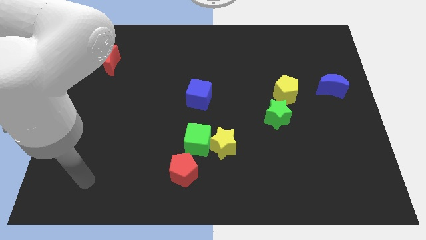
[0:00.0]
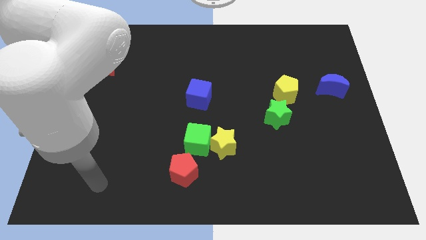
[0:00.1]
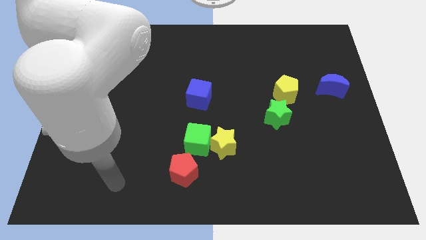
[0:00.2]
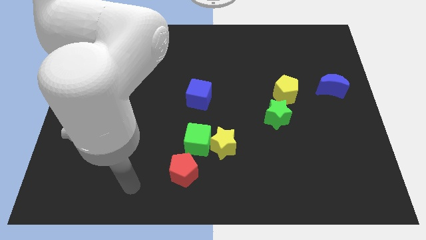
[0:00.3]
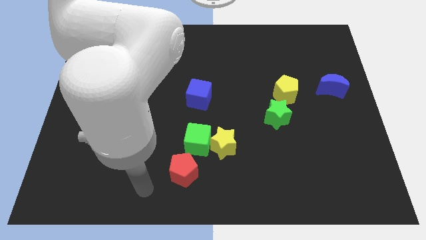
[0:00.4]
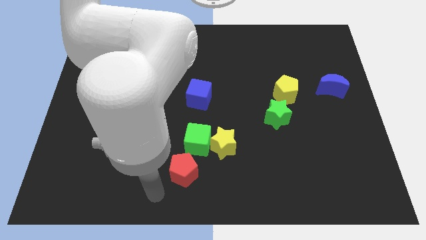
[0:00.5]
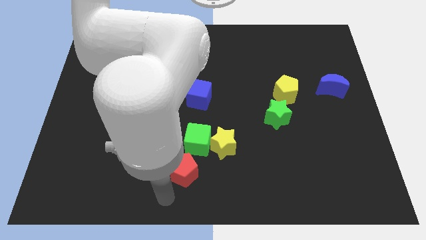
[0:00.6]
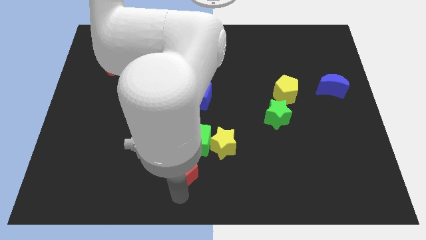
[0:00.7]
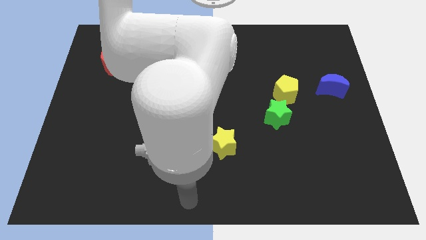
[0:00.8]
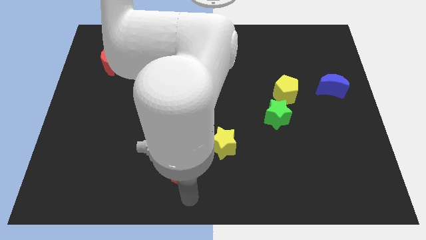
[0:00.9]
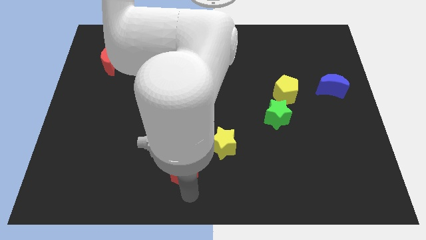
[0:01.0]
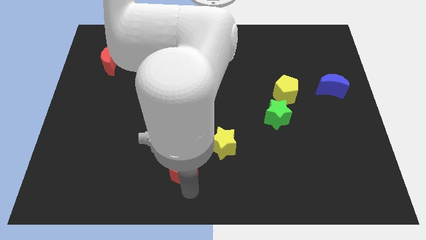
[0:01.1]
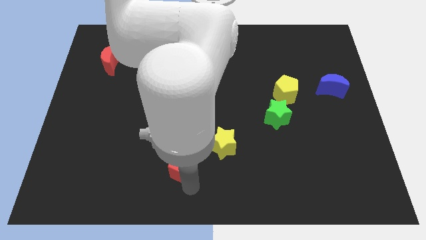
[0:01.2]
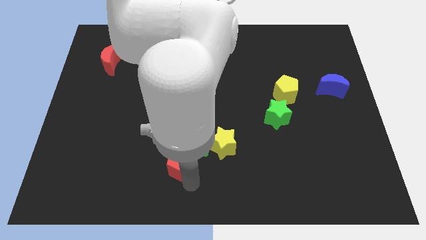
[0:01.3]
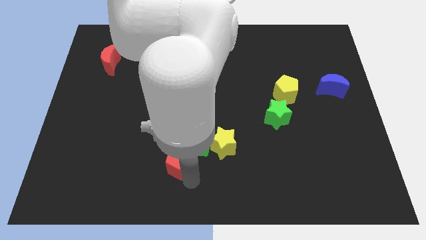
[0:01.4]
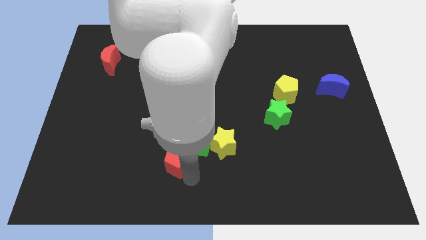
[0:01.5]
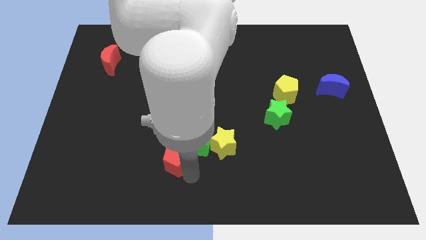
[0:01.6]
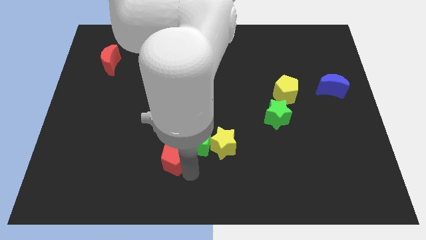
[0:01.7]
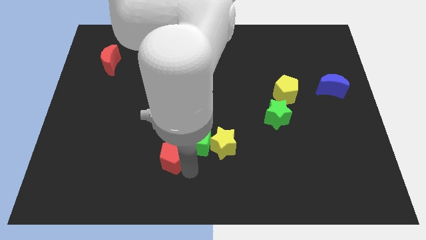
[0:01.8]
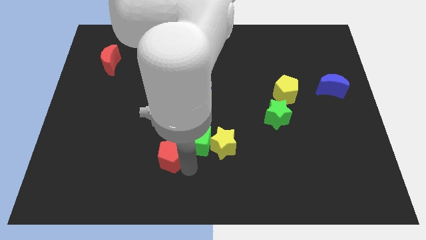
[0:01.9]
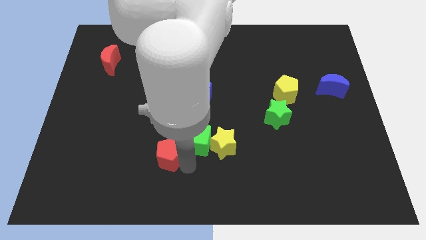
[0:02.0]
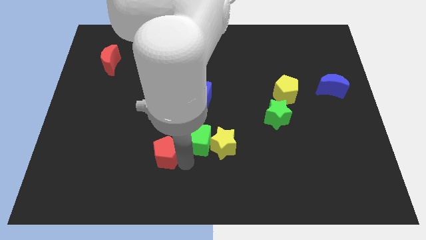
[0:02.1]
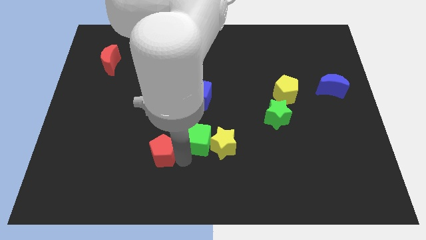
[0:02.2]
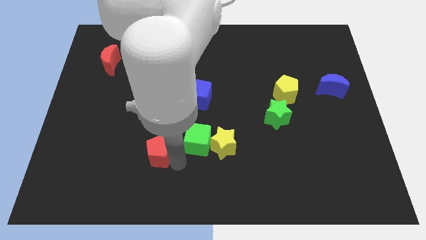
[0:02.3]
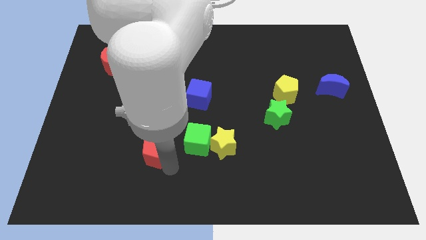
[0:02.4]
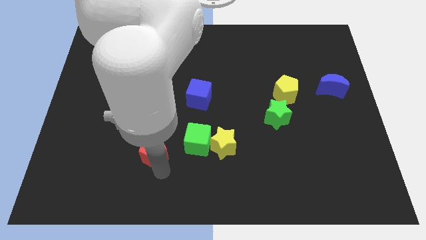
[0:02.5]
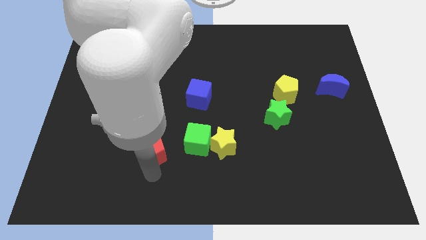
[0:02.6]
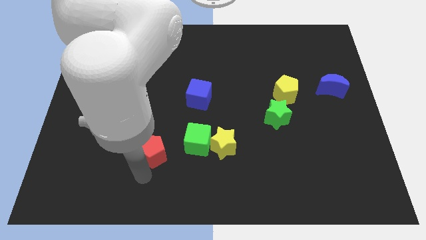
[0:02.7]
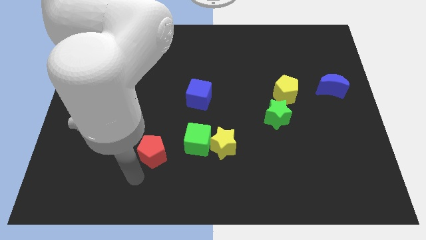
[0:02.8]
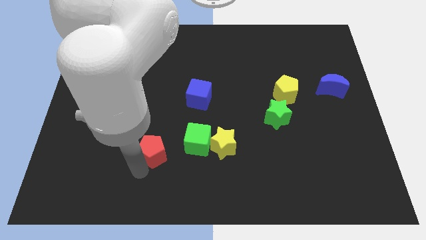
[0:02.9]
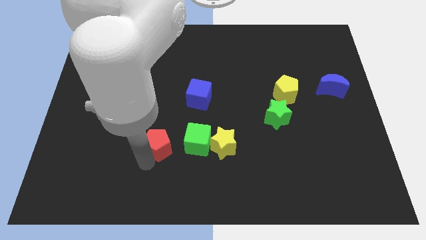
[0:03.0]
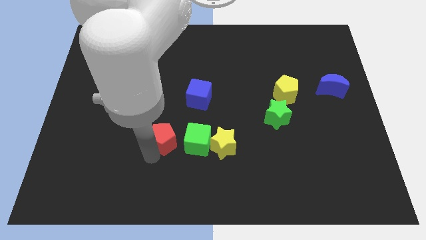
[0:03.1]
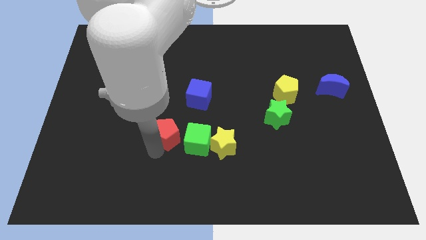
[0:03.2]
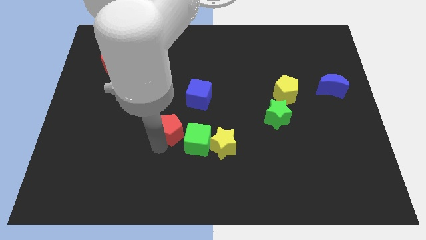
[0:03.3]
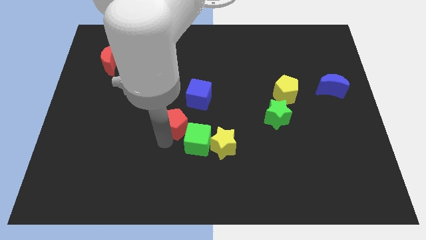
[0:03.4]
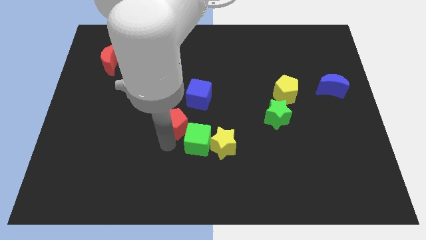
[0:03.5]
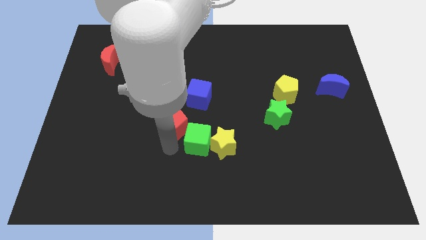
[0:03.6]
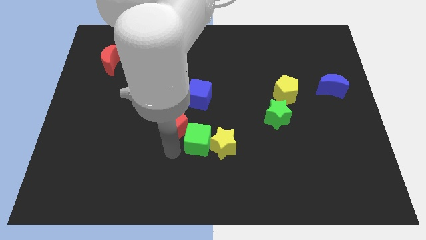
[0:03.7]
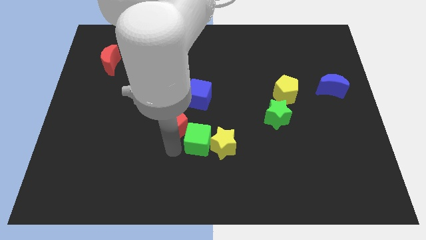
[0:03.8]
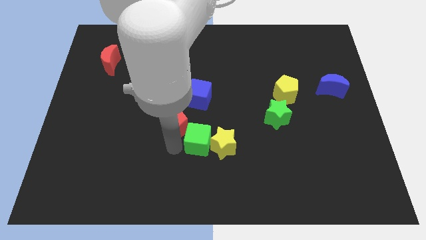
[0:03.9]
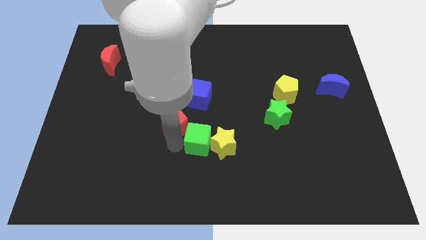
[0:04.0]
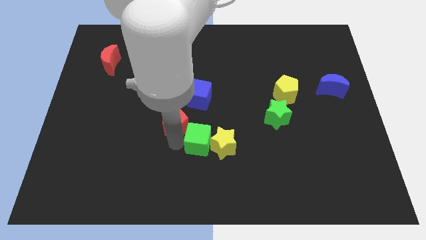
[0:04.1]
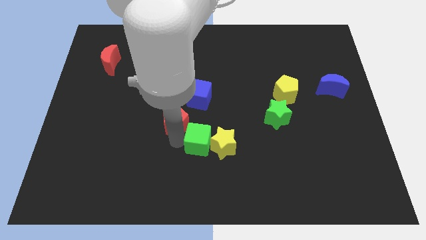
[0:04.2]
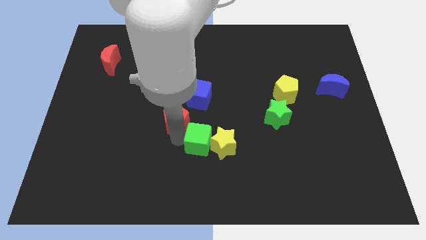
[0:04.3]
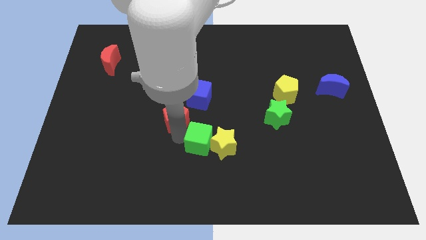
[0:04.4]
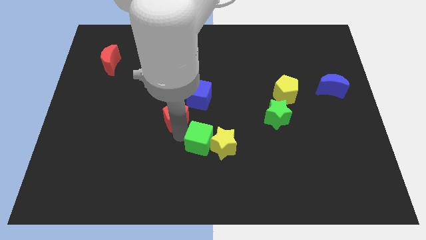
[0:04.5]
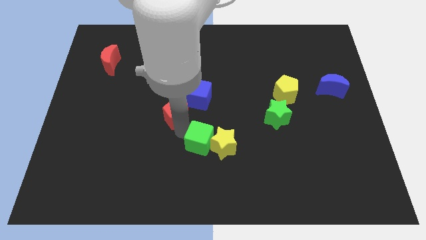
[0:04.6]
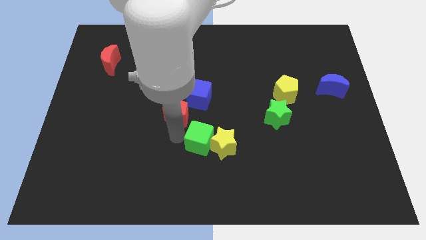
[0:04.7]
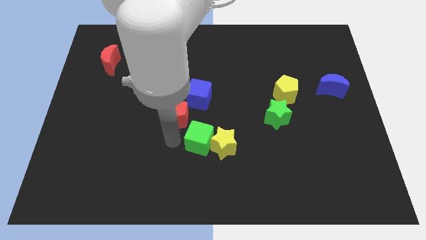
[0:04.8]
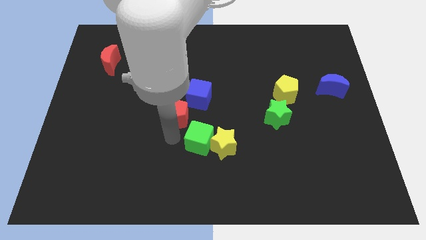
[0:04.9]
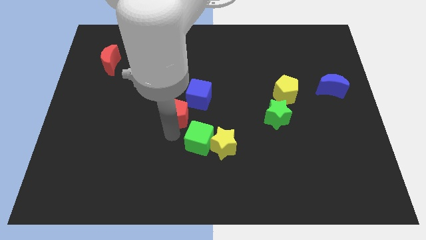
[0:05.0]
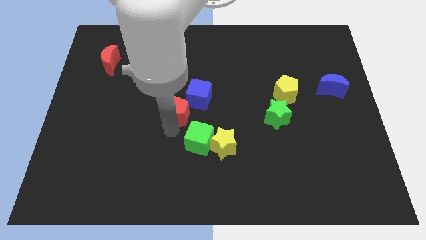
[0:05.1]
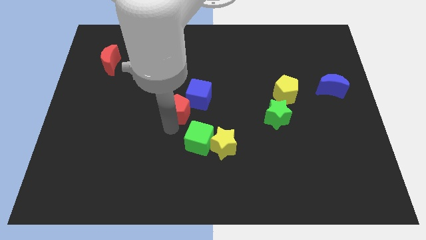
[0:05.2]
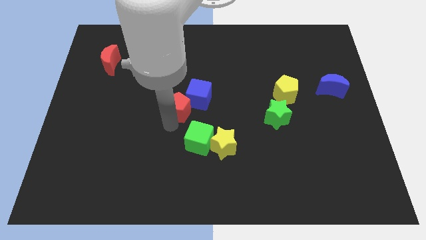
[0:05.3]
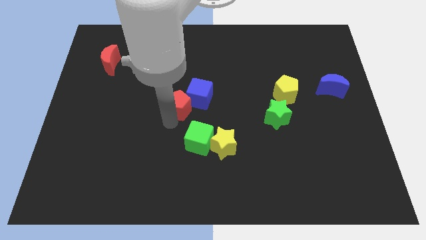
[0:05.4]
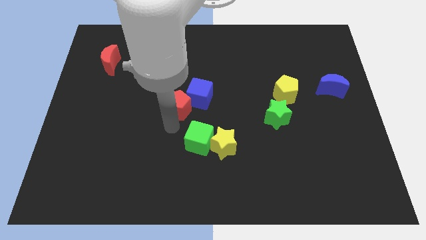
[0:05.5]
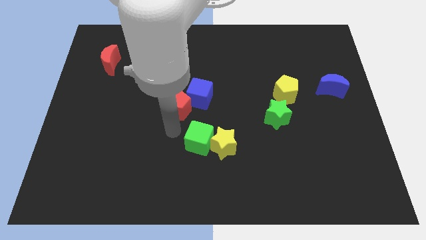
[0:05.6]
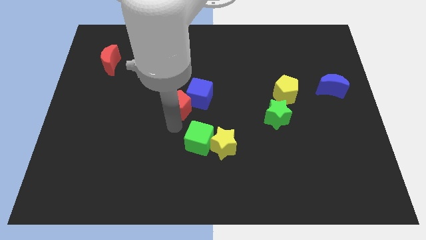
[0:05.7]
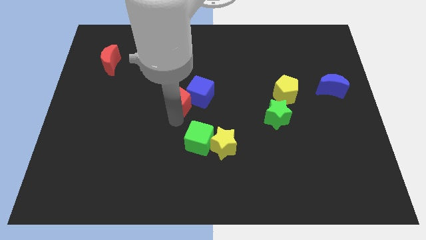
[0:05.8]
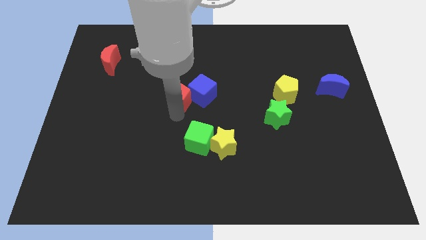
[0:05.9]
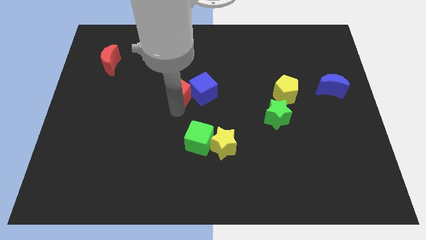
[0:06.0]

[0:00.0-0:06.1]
push the red pentagon up

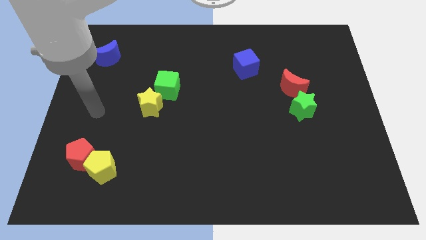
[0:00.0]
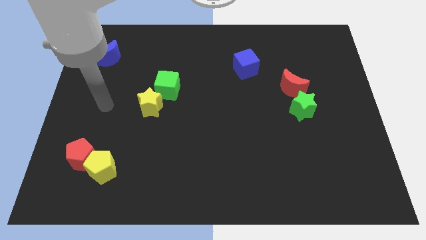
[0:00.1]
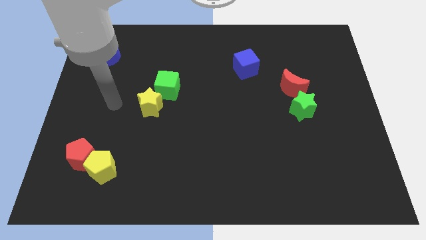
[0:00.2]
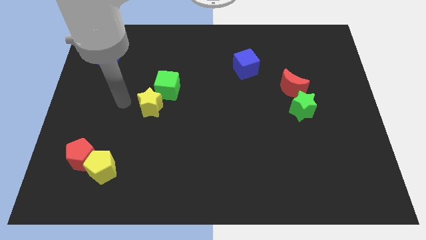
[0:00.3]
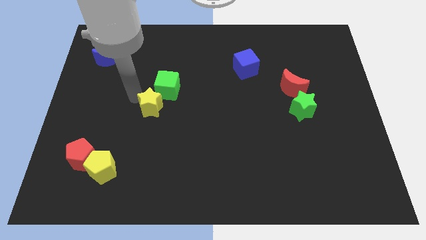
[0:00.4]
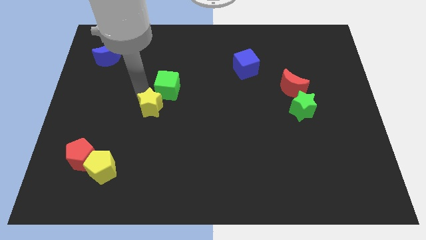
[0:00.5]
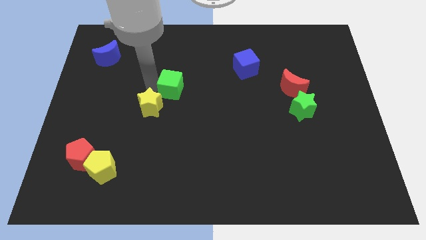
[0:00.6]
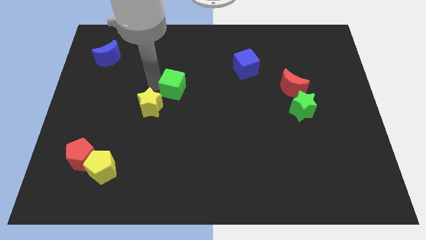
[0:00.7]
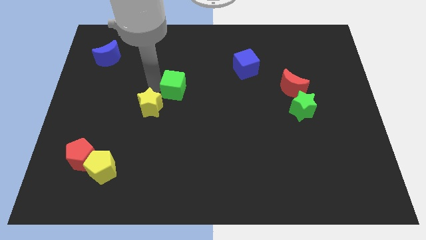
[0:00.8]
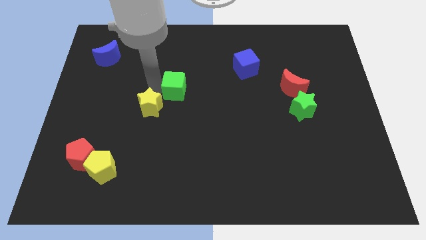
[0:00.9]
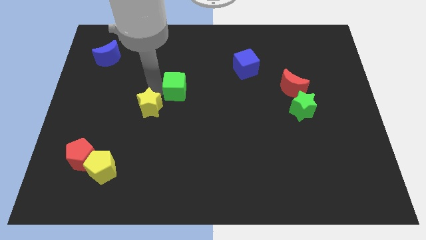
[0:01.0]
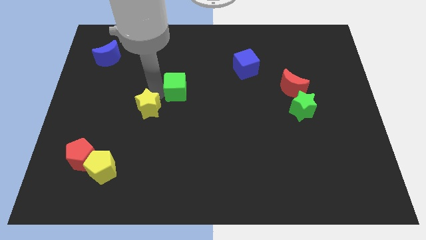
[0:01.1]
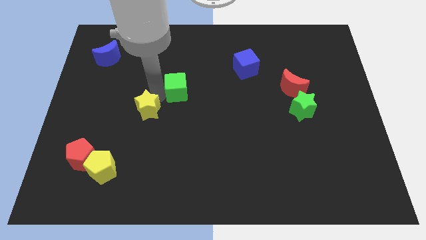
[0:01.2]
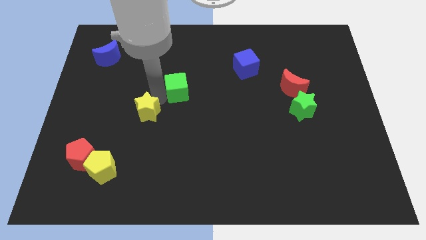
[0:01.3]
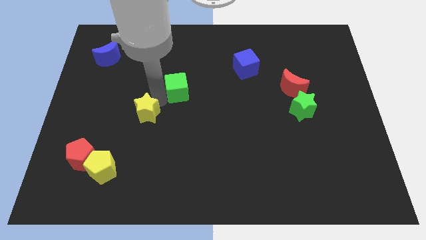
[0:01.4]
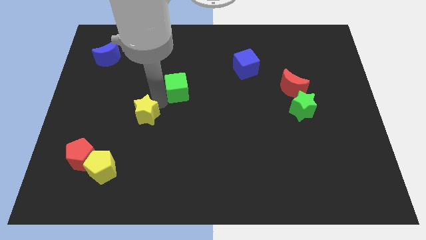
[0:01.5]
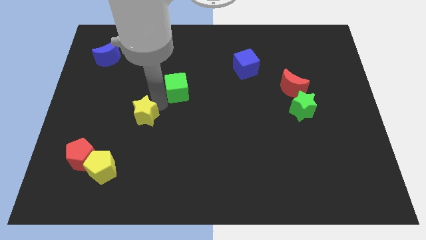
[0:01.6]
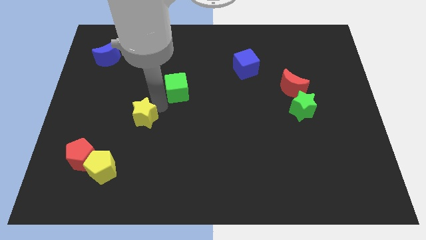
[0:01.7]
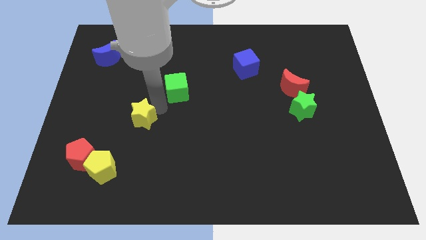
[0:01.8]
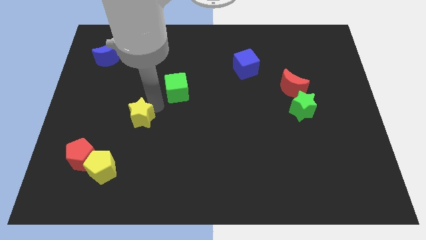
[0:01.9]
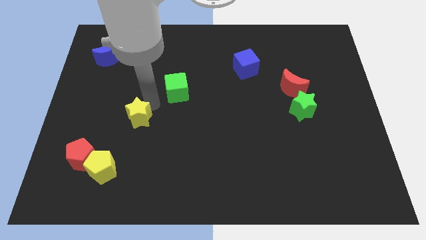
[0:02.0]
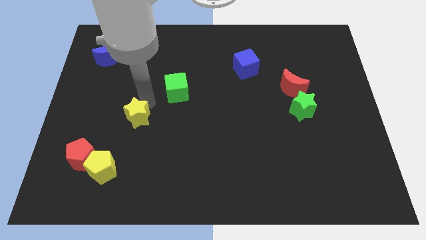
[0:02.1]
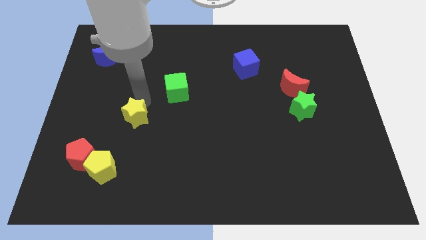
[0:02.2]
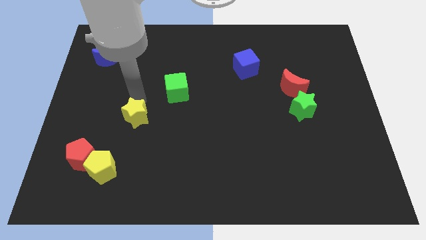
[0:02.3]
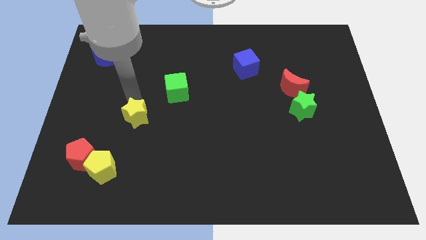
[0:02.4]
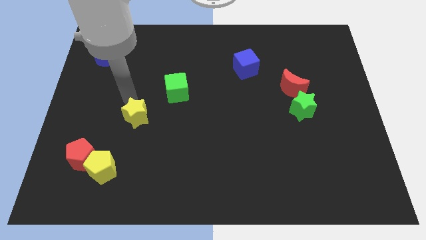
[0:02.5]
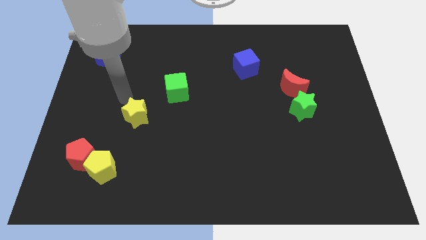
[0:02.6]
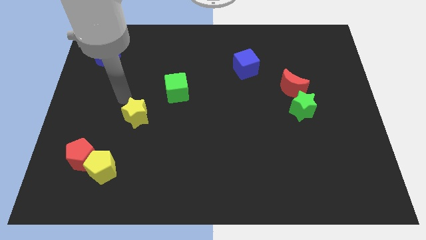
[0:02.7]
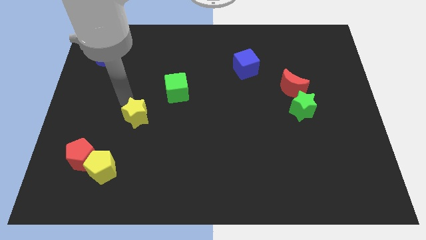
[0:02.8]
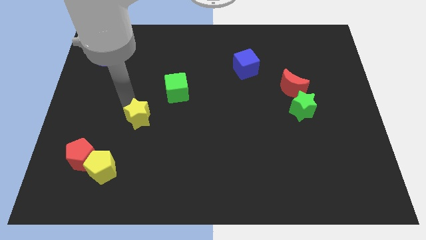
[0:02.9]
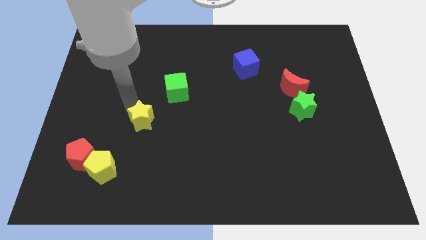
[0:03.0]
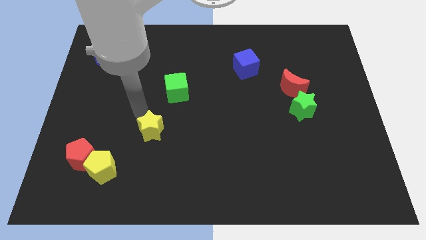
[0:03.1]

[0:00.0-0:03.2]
move the yellow star a little bit down
